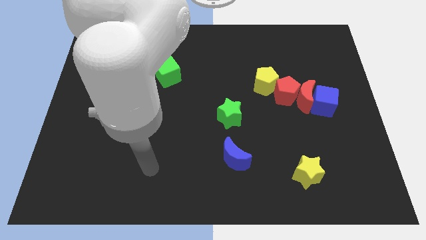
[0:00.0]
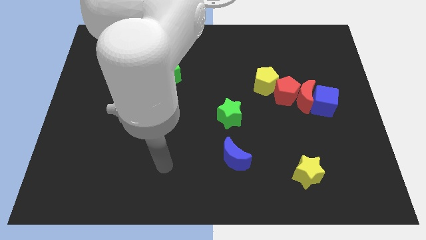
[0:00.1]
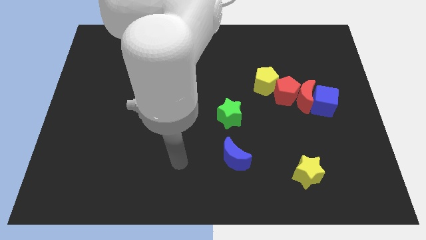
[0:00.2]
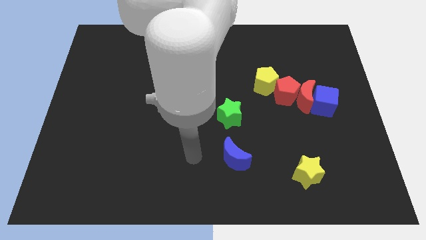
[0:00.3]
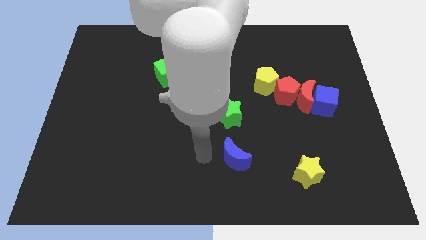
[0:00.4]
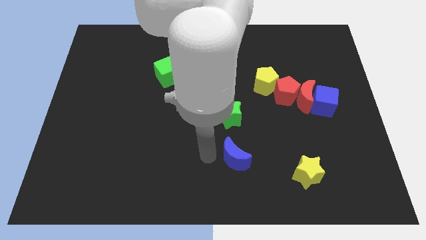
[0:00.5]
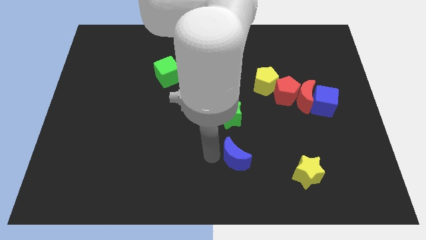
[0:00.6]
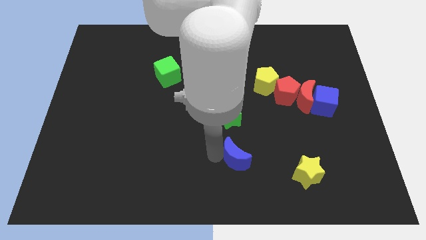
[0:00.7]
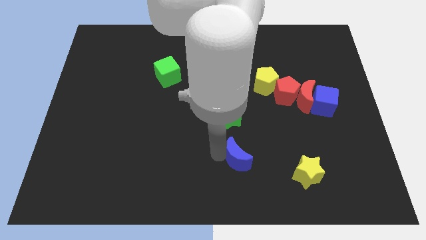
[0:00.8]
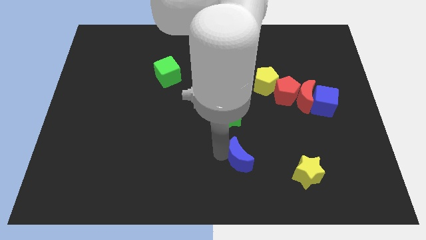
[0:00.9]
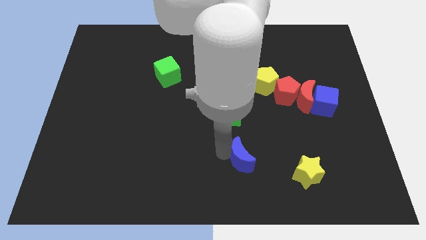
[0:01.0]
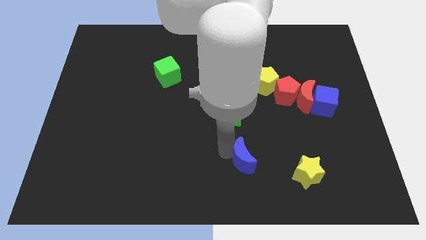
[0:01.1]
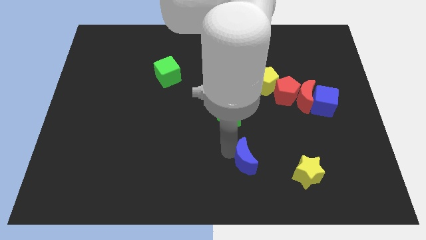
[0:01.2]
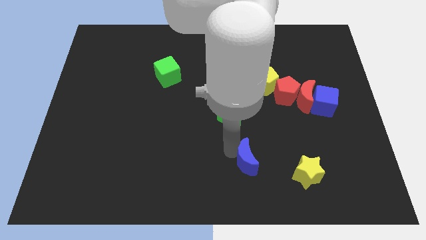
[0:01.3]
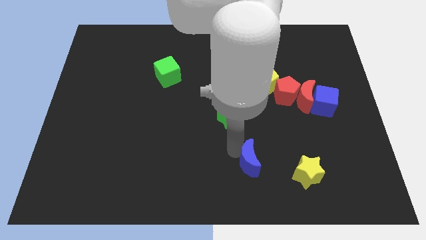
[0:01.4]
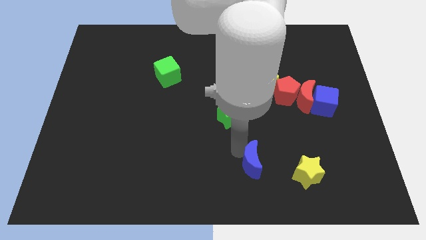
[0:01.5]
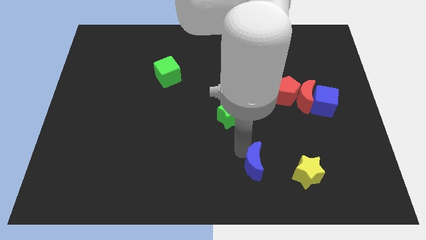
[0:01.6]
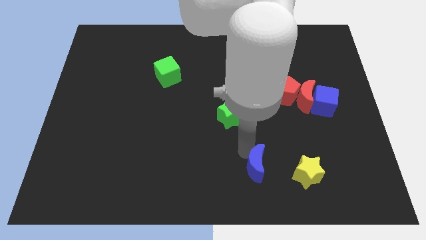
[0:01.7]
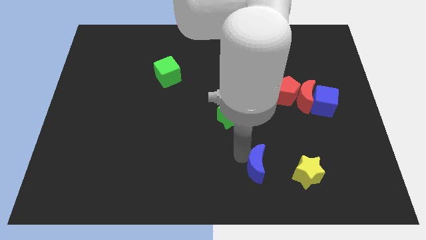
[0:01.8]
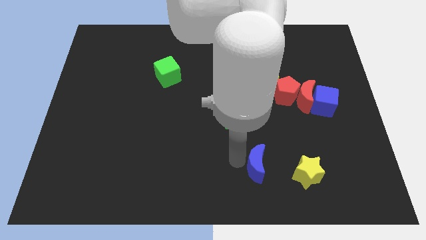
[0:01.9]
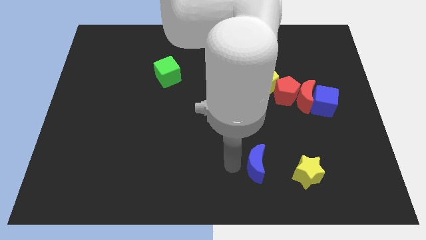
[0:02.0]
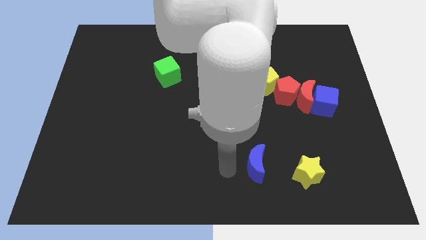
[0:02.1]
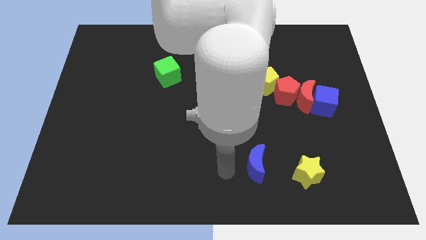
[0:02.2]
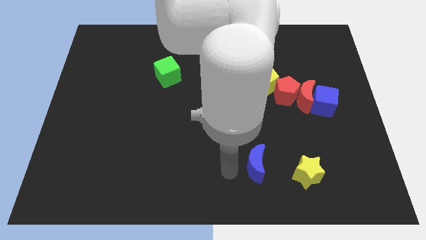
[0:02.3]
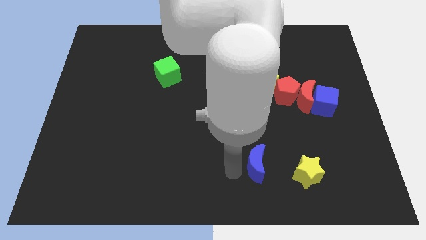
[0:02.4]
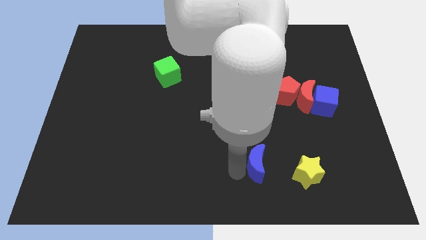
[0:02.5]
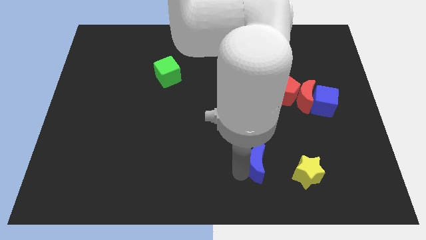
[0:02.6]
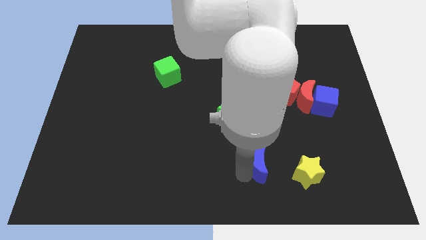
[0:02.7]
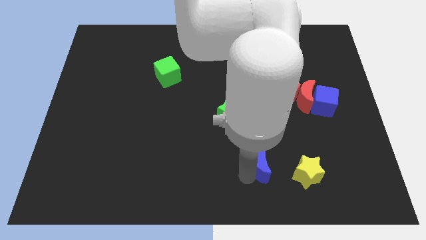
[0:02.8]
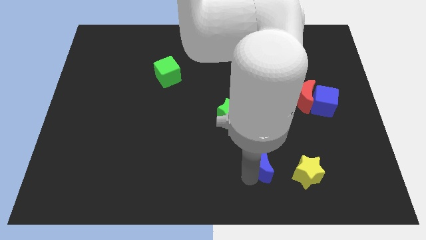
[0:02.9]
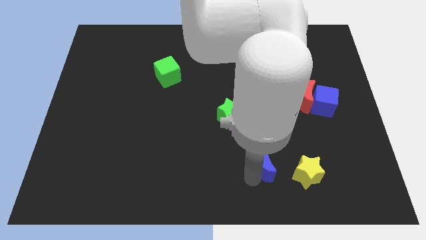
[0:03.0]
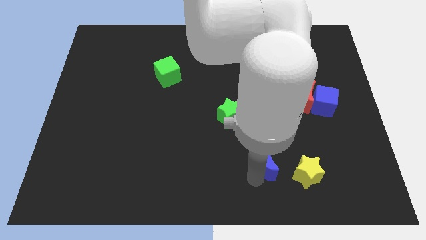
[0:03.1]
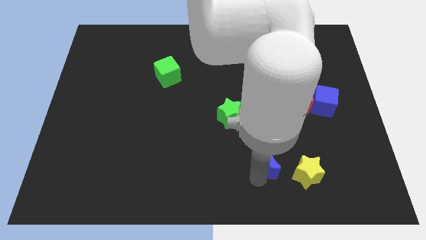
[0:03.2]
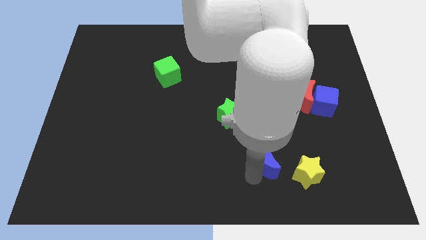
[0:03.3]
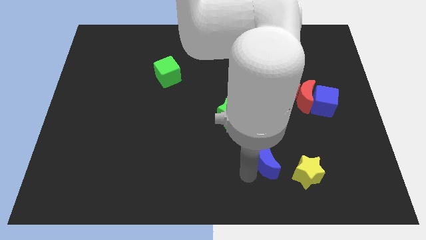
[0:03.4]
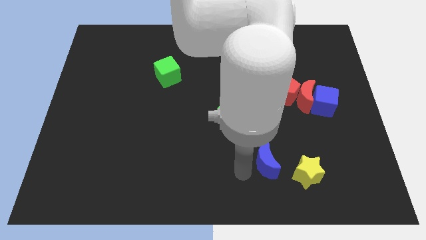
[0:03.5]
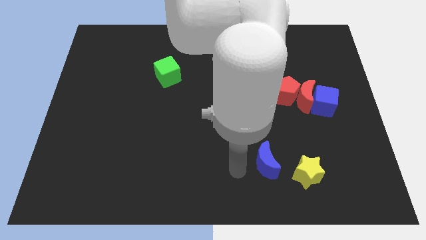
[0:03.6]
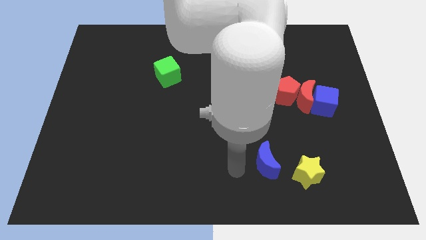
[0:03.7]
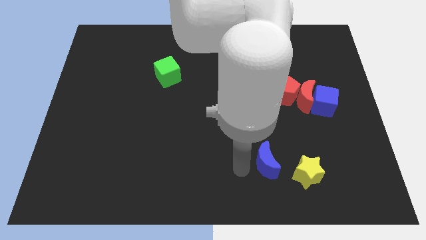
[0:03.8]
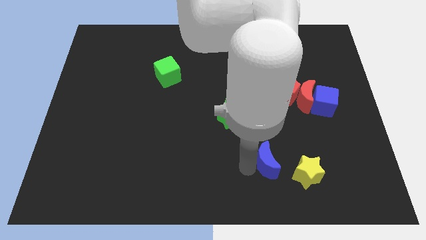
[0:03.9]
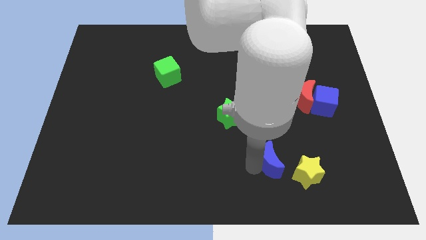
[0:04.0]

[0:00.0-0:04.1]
slide the blue moon right a little bit

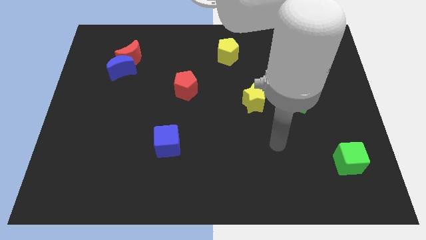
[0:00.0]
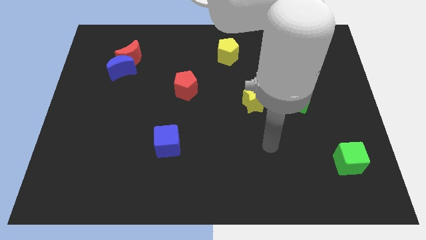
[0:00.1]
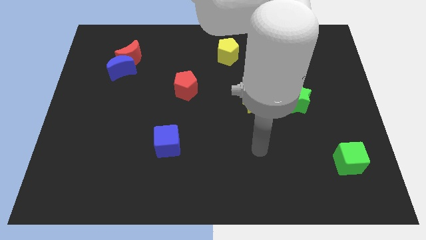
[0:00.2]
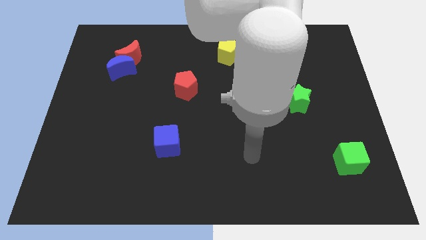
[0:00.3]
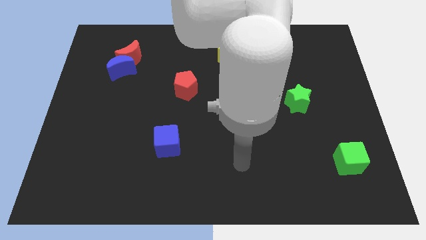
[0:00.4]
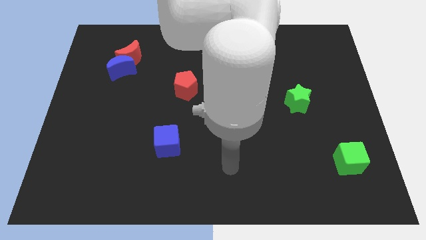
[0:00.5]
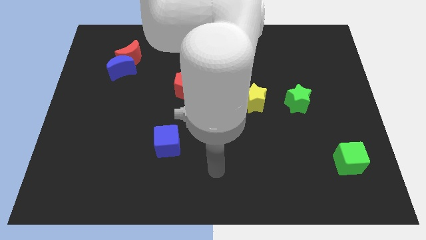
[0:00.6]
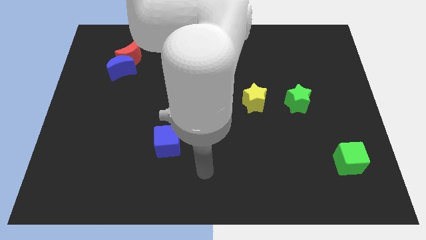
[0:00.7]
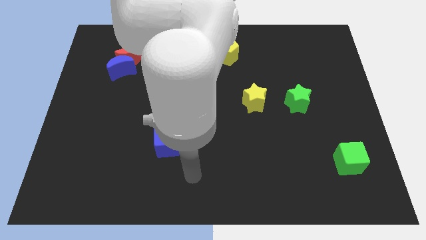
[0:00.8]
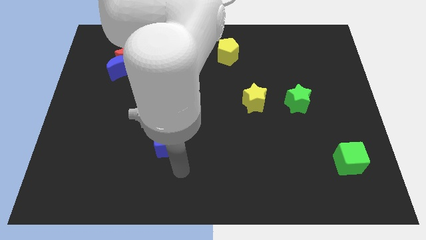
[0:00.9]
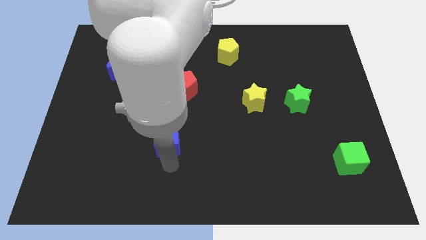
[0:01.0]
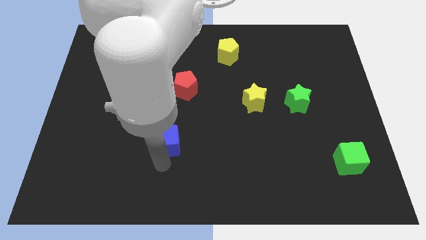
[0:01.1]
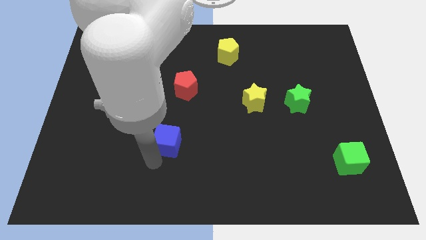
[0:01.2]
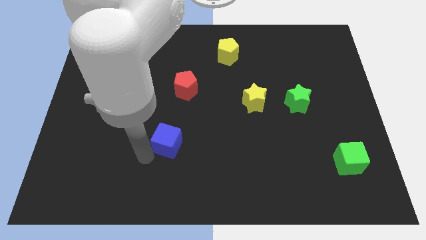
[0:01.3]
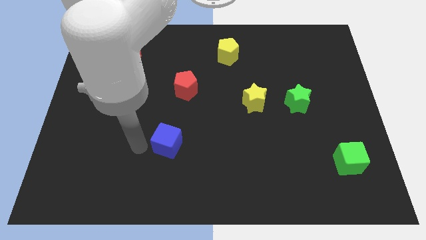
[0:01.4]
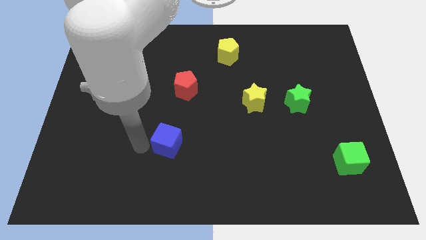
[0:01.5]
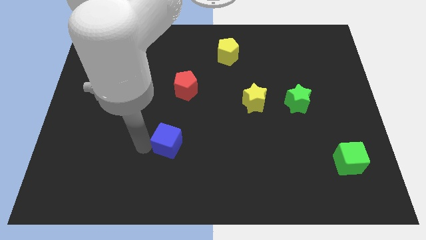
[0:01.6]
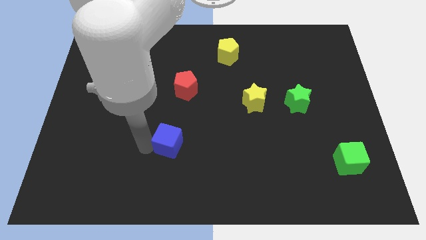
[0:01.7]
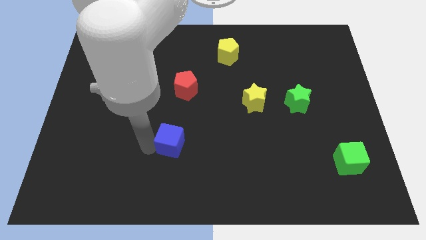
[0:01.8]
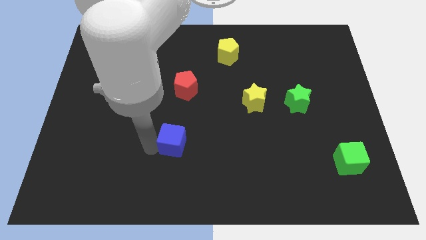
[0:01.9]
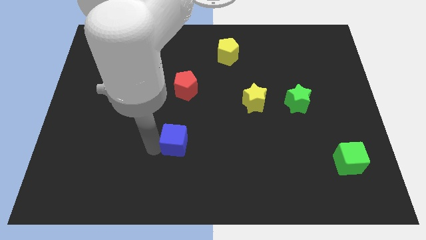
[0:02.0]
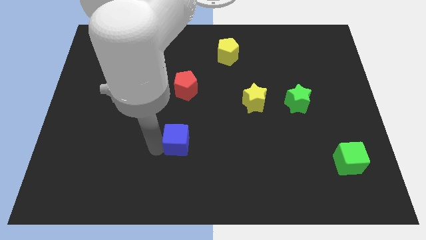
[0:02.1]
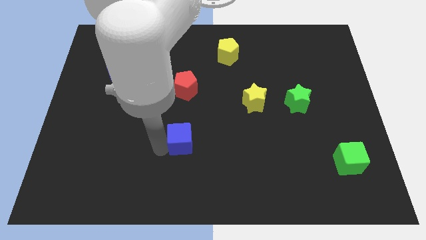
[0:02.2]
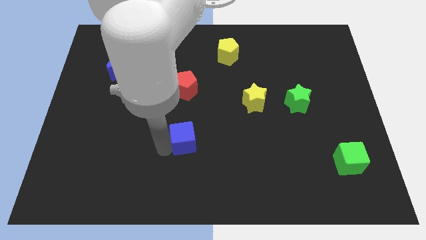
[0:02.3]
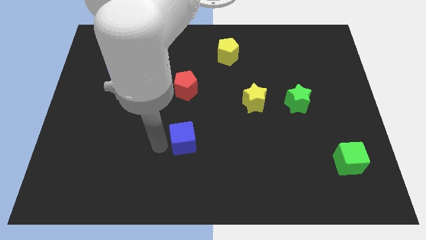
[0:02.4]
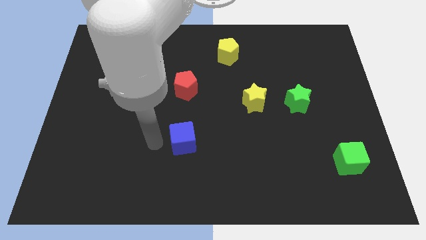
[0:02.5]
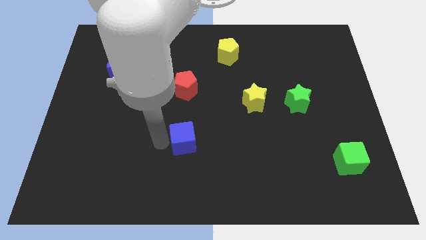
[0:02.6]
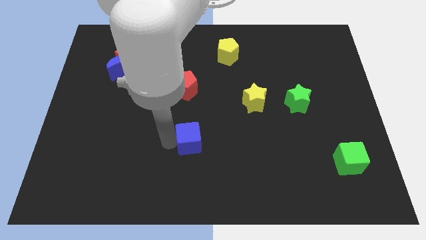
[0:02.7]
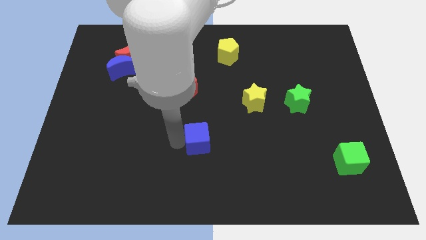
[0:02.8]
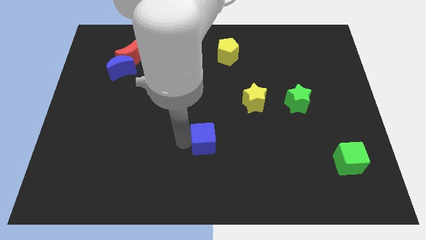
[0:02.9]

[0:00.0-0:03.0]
slightly push the blue cube right

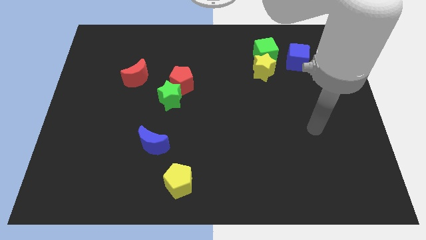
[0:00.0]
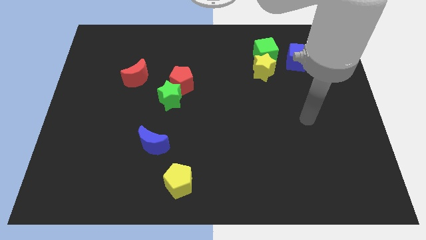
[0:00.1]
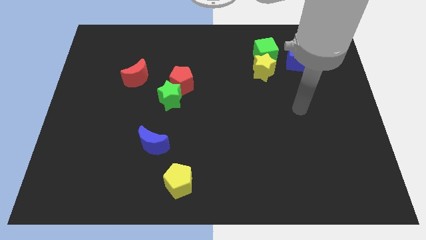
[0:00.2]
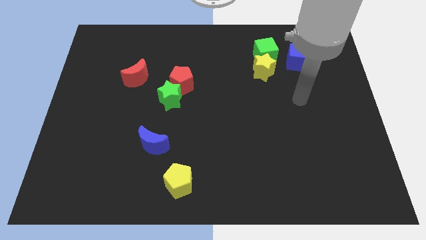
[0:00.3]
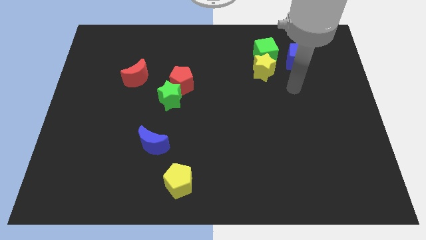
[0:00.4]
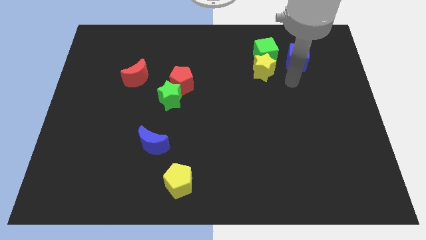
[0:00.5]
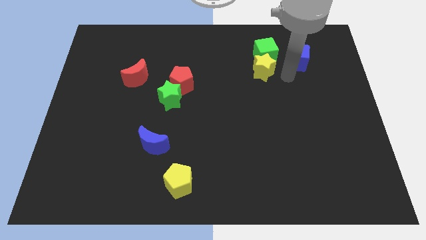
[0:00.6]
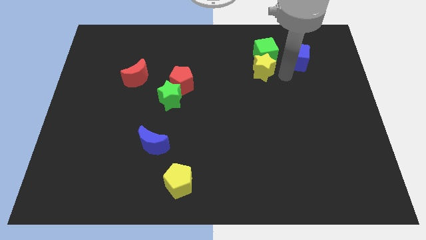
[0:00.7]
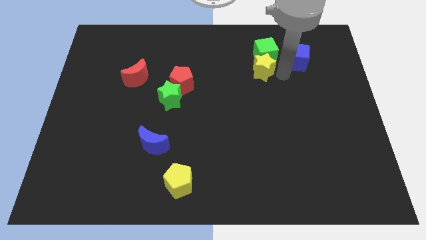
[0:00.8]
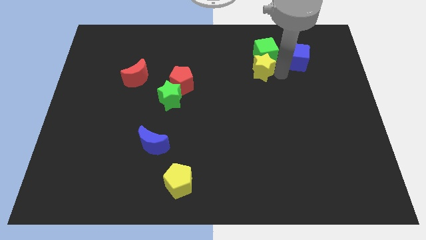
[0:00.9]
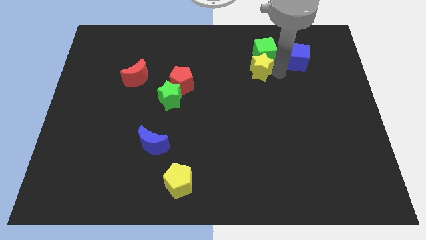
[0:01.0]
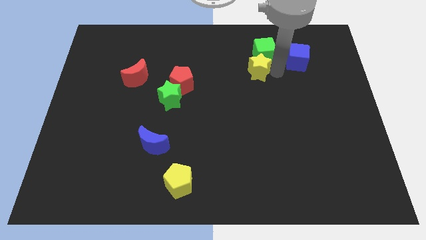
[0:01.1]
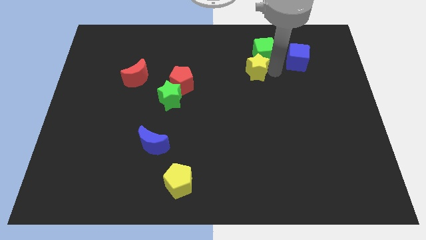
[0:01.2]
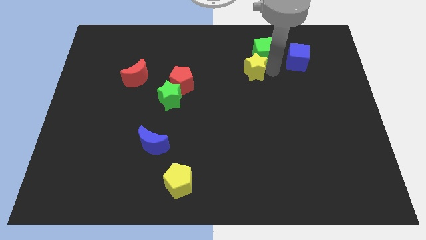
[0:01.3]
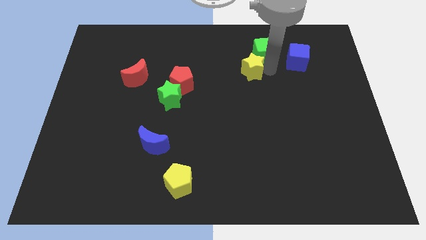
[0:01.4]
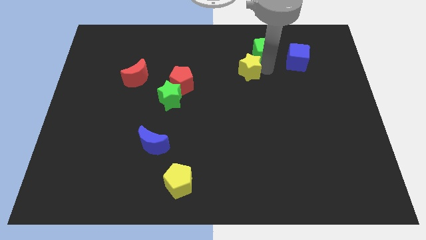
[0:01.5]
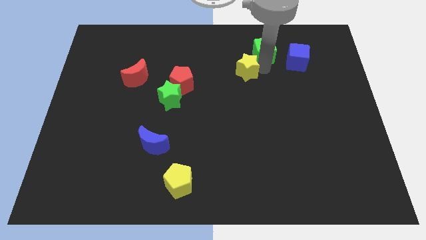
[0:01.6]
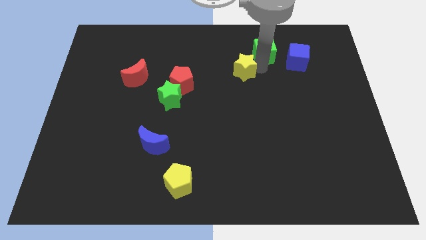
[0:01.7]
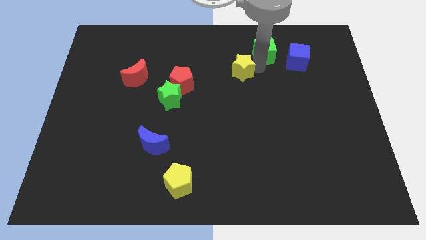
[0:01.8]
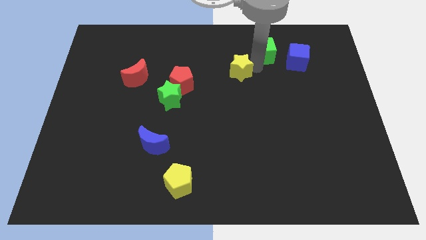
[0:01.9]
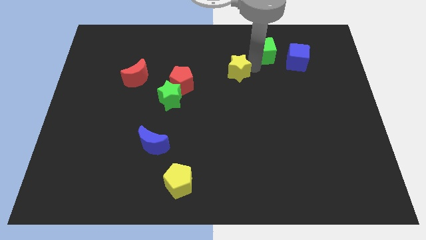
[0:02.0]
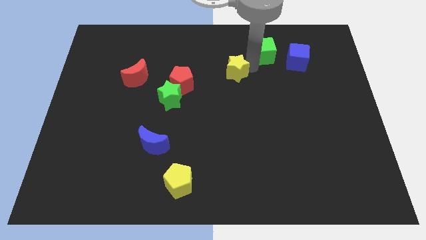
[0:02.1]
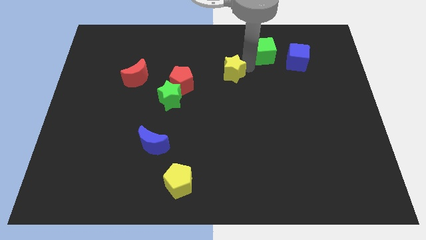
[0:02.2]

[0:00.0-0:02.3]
slightly push the yellow star to the left
